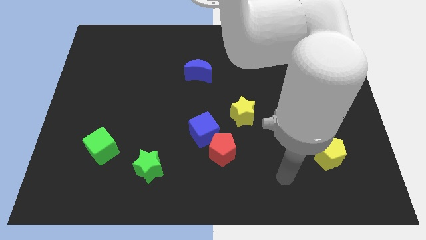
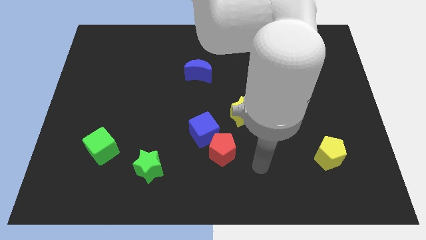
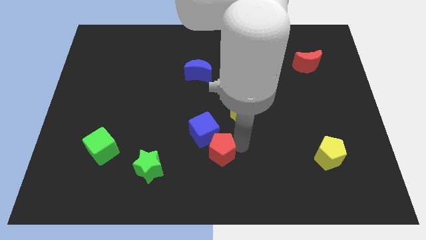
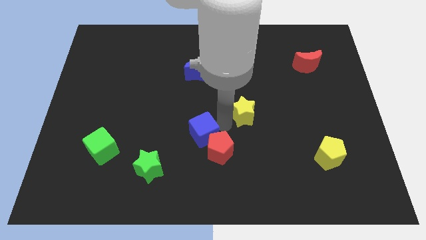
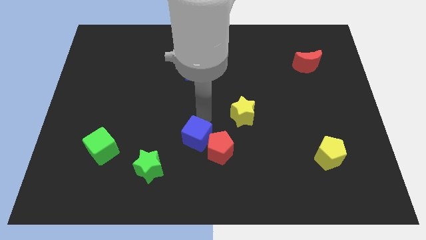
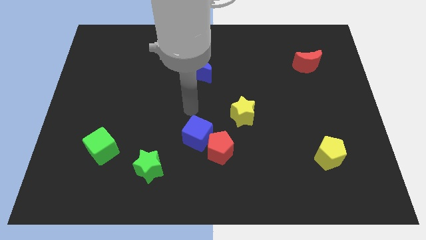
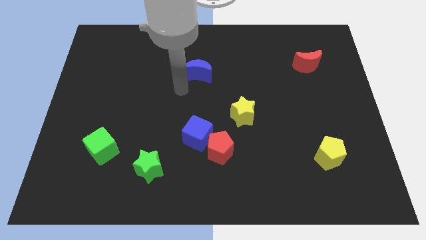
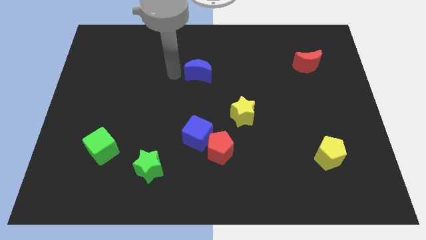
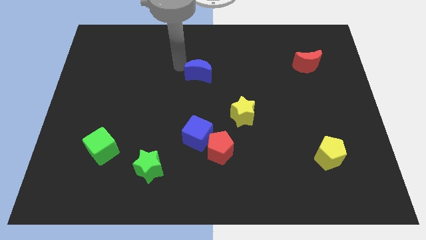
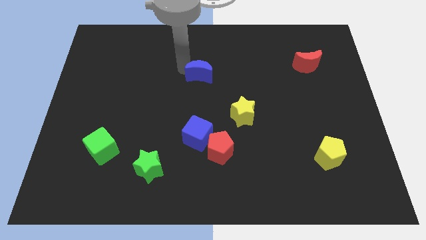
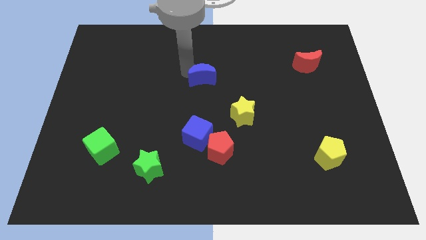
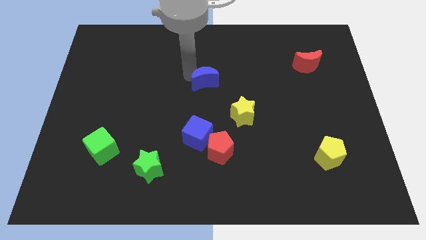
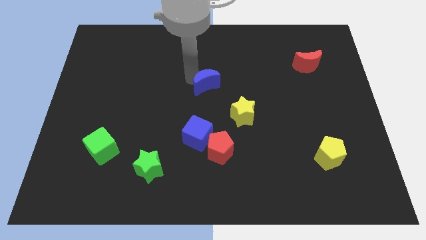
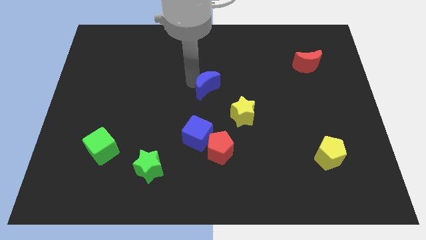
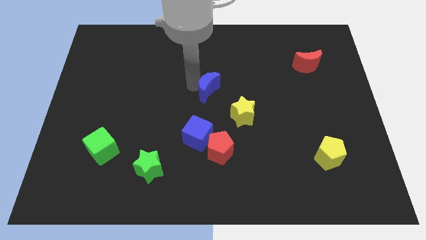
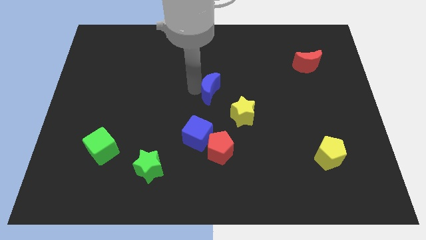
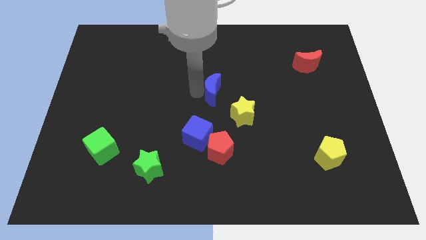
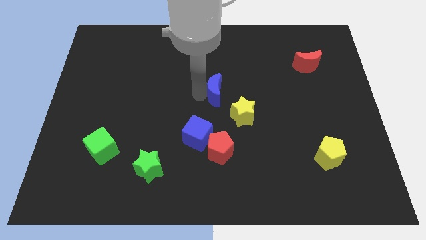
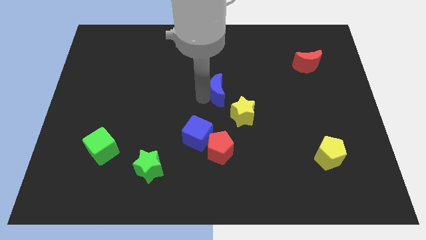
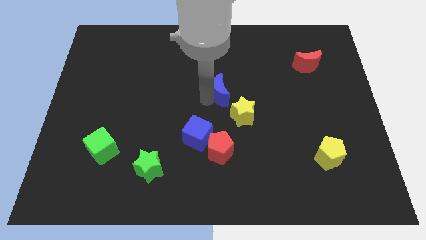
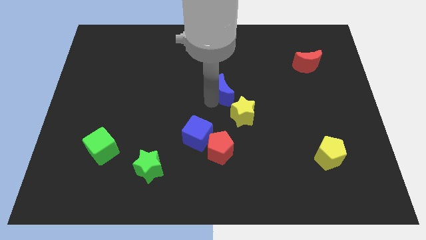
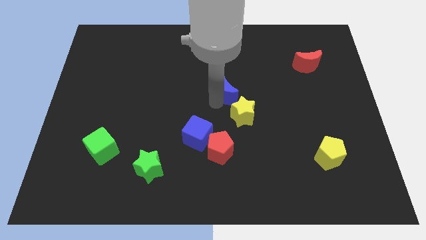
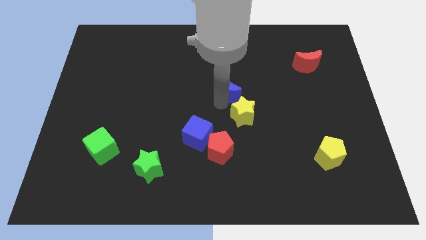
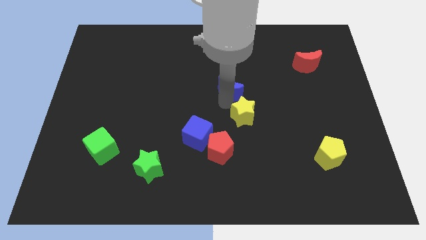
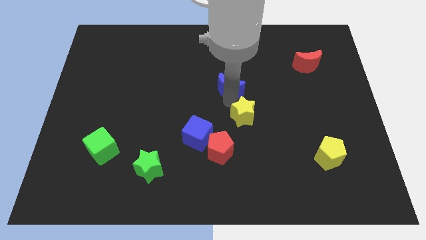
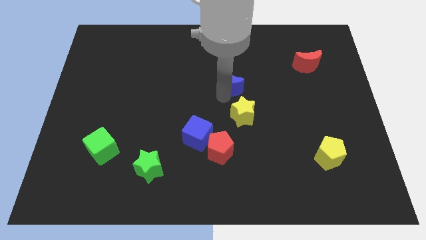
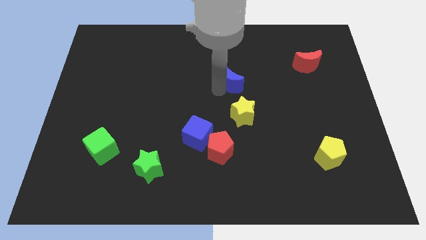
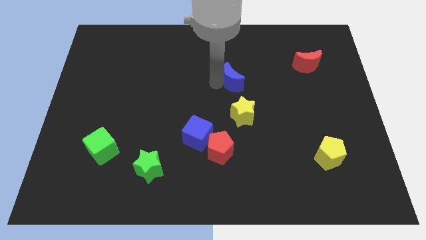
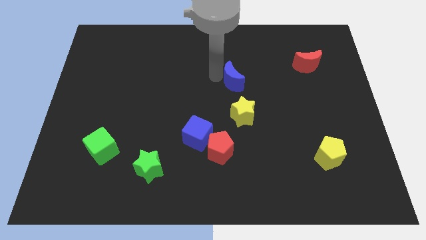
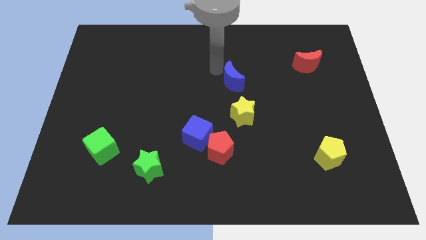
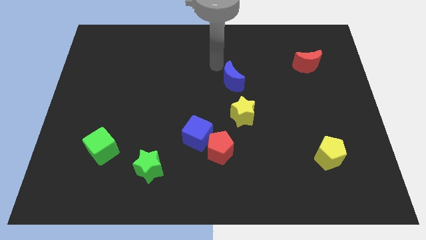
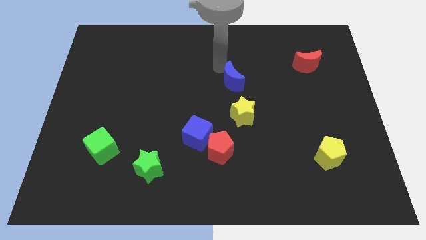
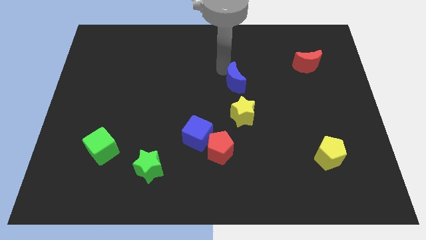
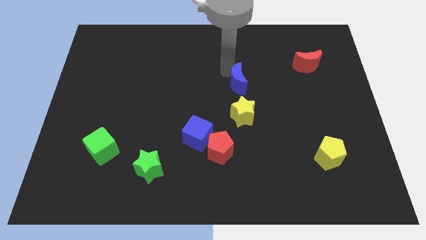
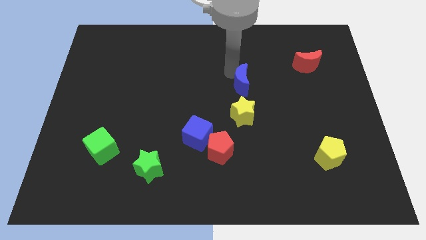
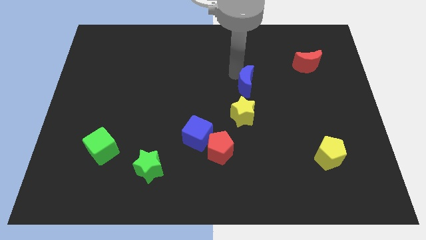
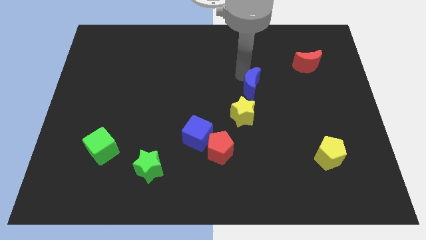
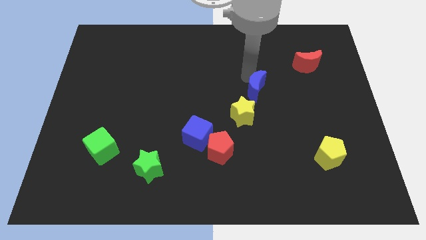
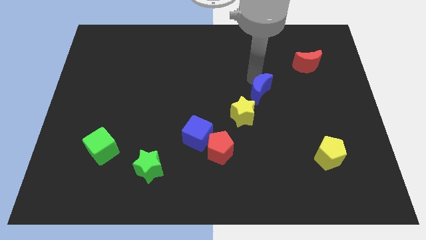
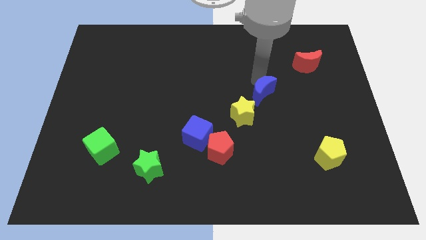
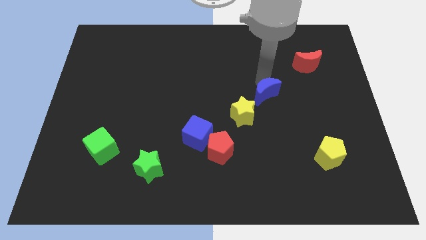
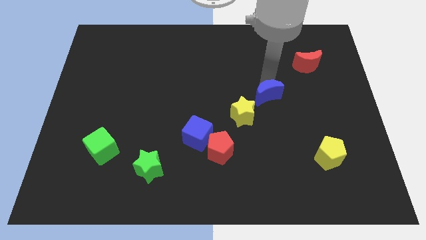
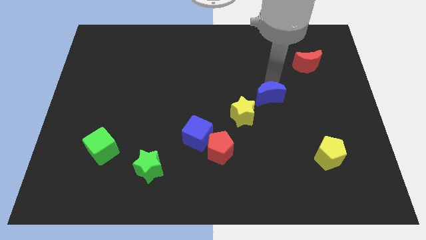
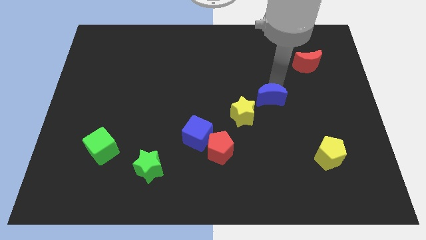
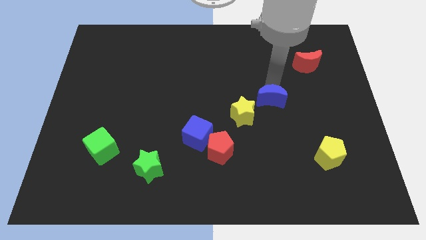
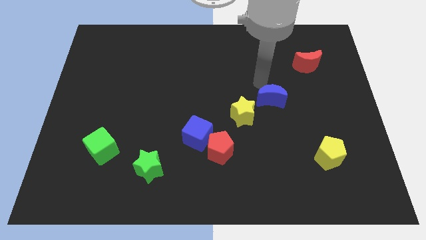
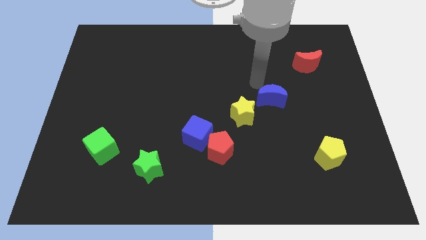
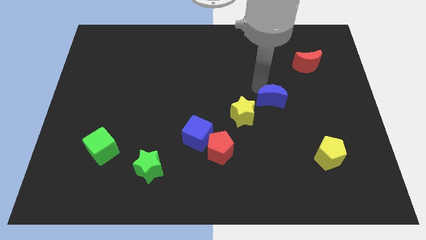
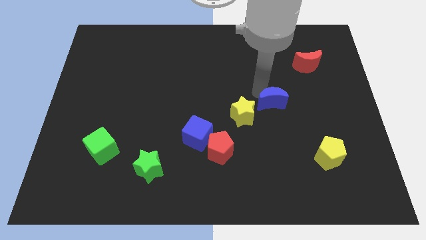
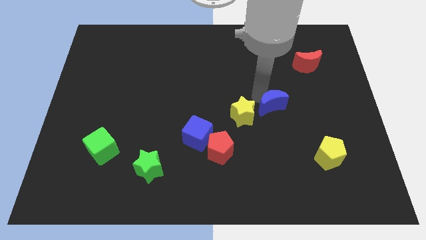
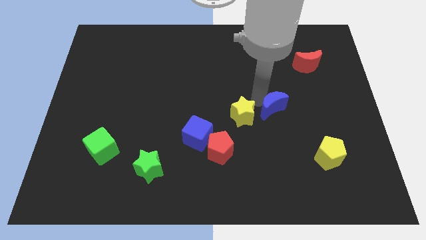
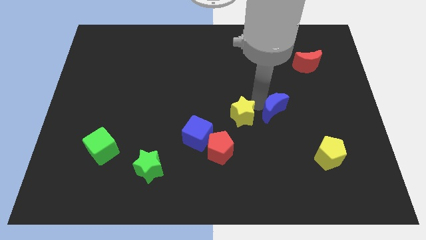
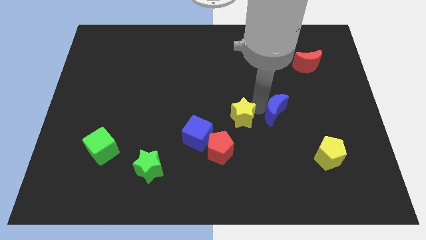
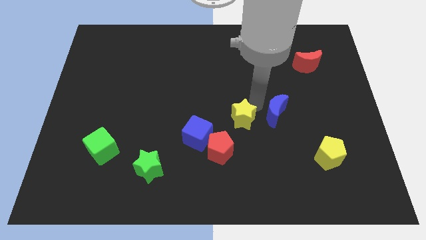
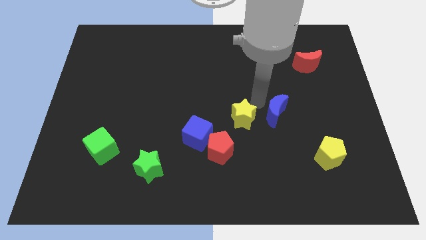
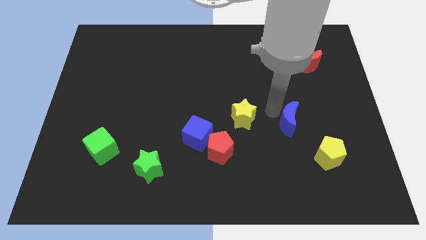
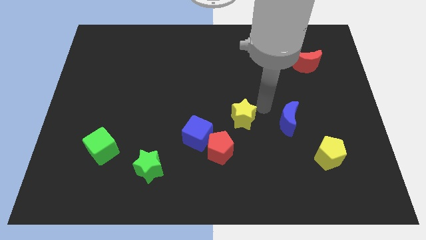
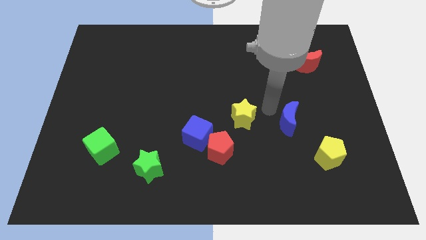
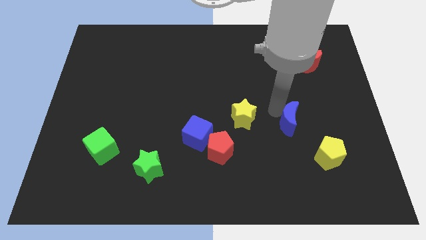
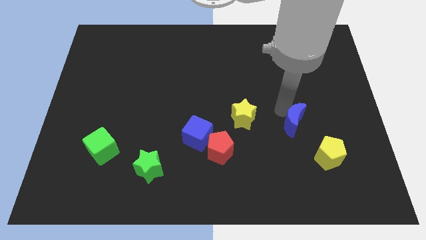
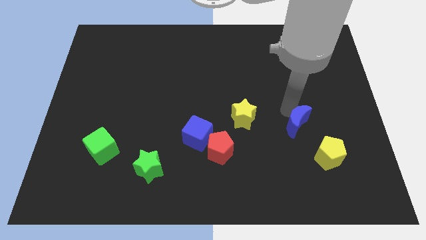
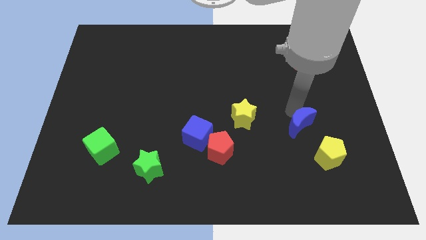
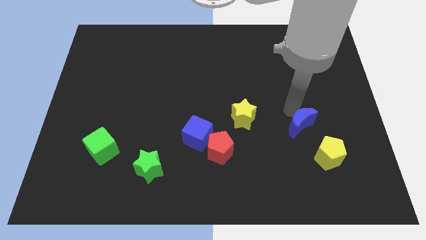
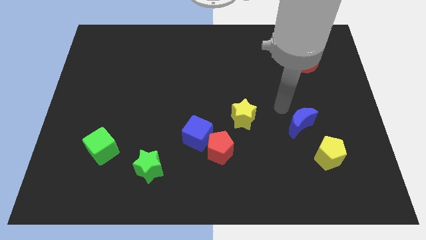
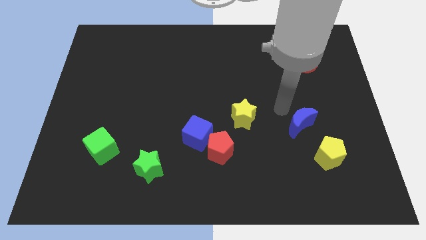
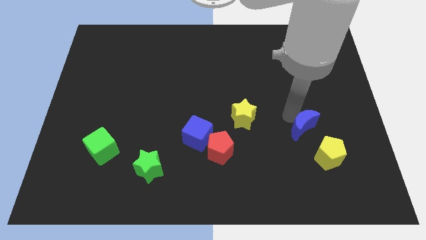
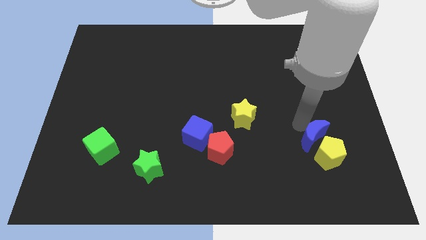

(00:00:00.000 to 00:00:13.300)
push the blue moon close to the yellow pentagon
